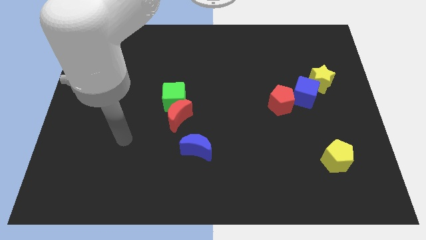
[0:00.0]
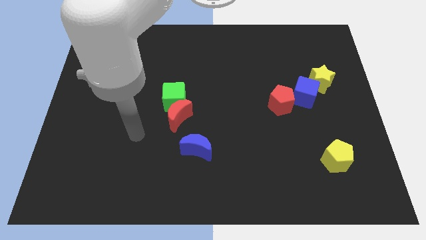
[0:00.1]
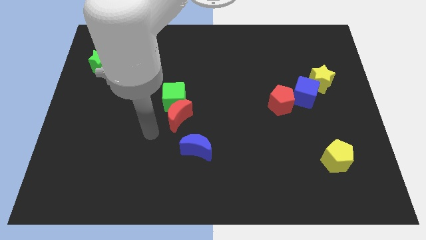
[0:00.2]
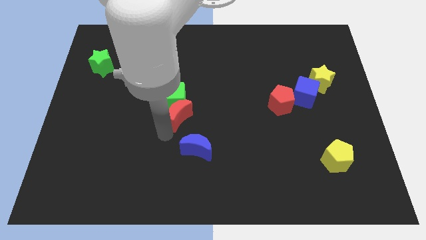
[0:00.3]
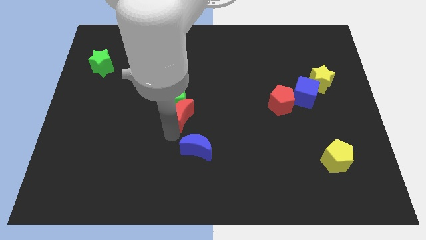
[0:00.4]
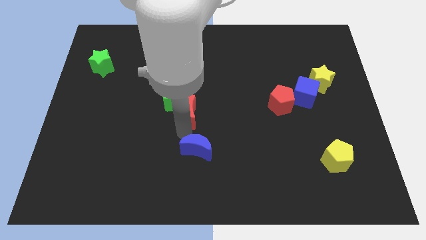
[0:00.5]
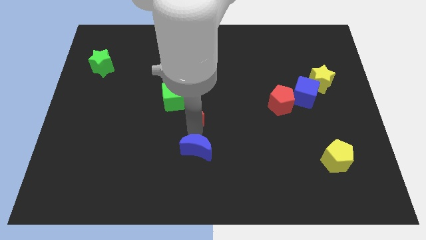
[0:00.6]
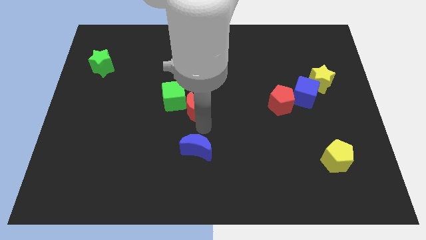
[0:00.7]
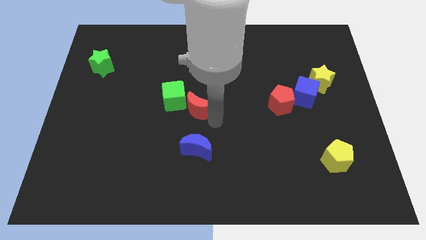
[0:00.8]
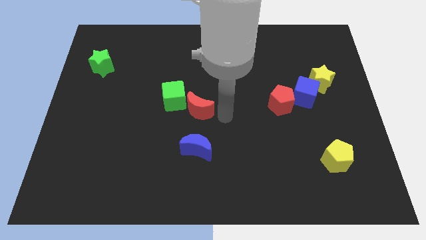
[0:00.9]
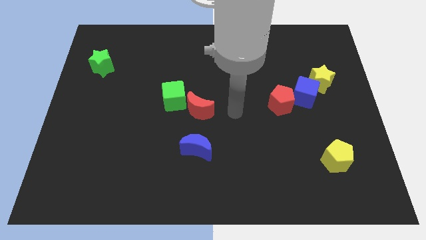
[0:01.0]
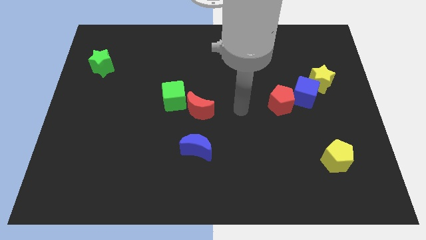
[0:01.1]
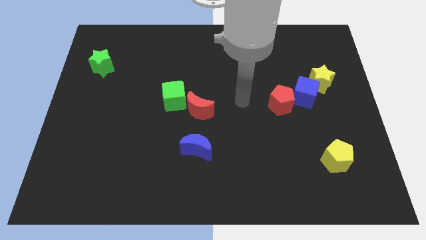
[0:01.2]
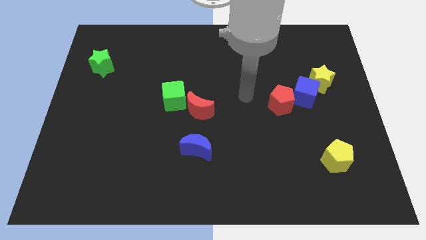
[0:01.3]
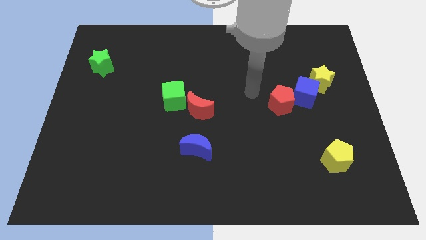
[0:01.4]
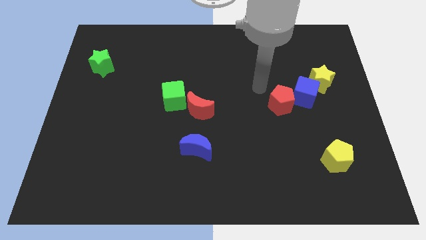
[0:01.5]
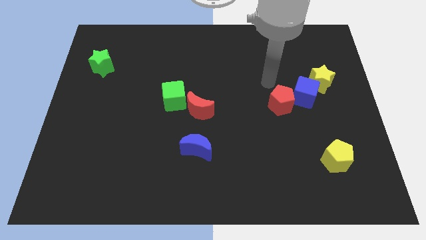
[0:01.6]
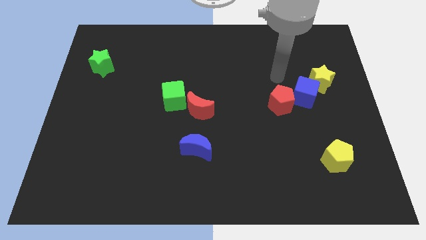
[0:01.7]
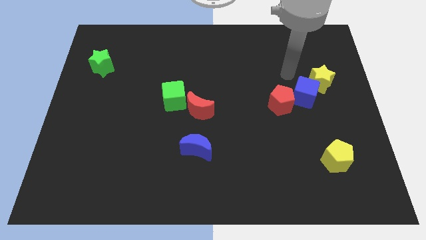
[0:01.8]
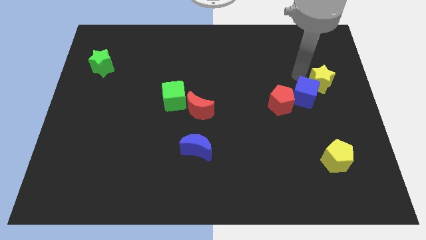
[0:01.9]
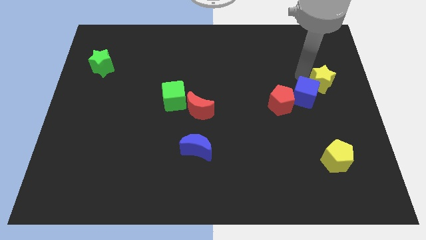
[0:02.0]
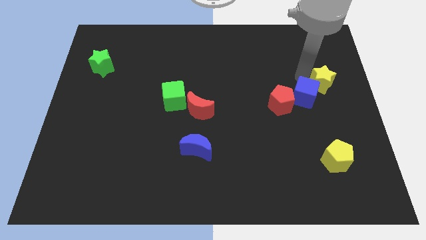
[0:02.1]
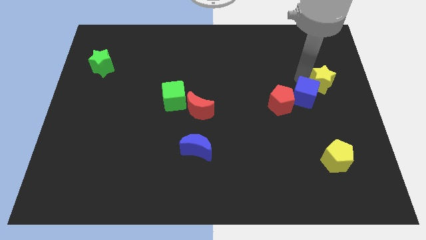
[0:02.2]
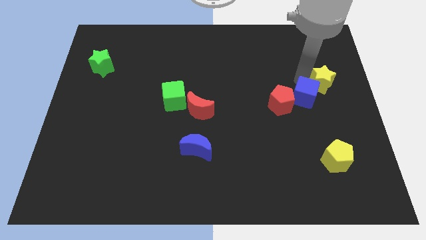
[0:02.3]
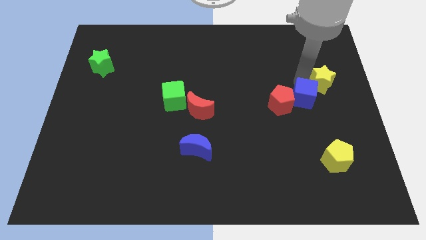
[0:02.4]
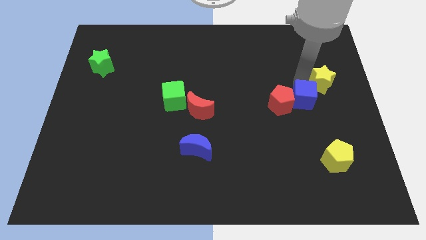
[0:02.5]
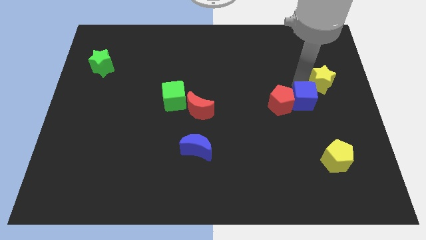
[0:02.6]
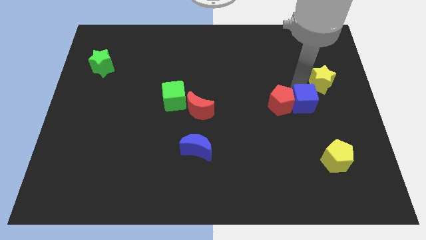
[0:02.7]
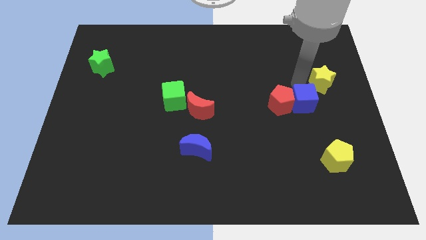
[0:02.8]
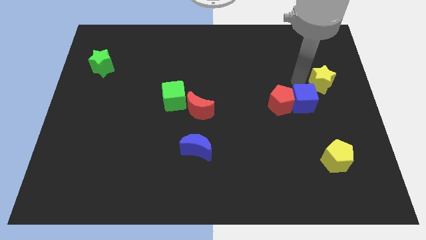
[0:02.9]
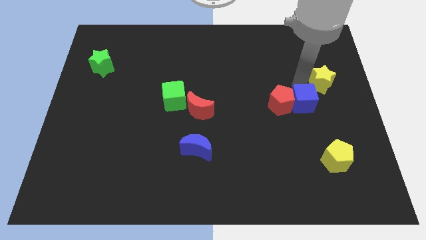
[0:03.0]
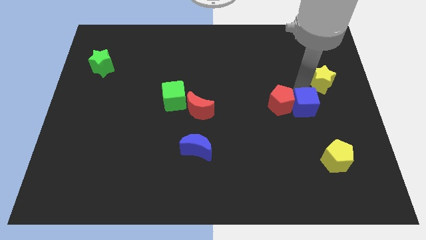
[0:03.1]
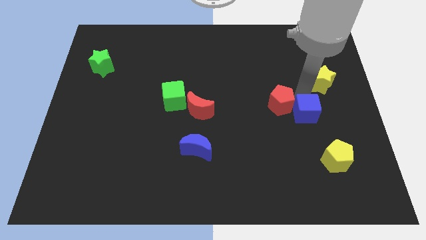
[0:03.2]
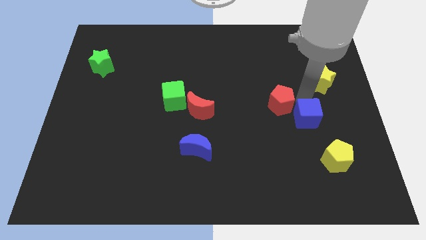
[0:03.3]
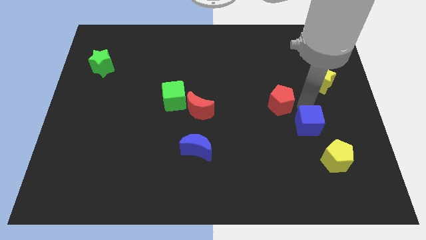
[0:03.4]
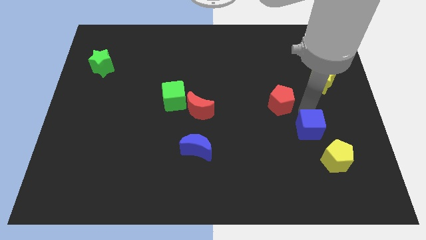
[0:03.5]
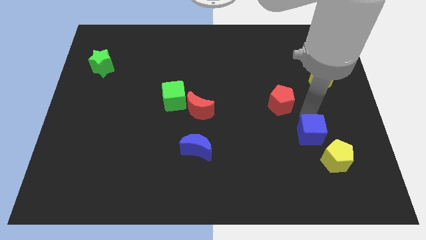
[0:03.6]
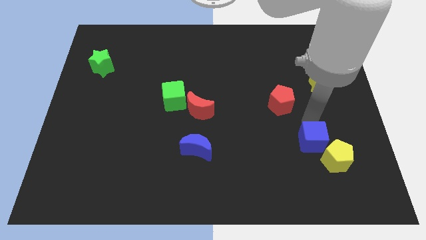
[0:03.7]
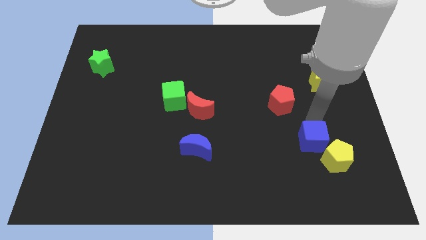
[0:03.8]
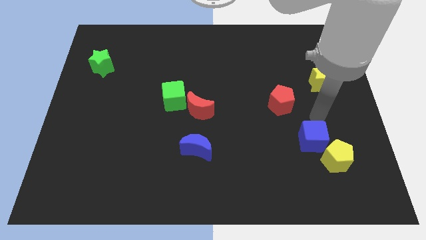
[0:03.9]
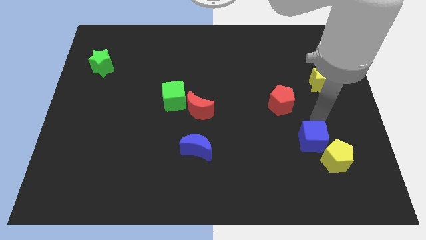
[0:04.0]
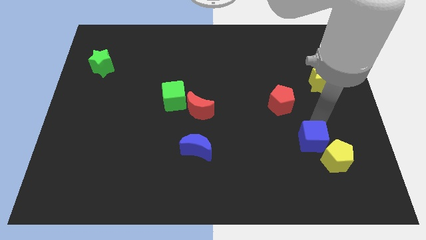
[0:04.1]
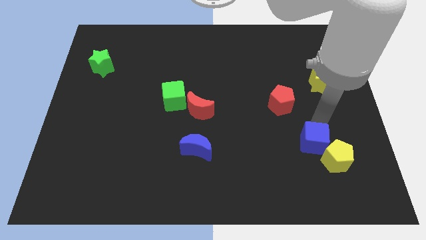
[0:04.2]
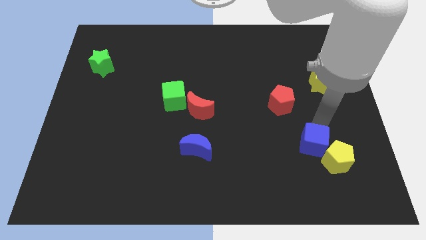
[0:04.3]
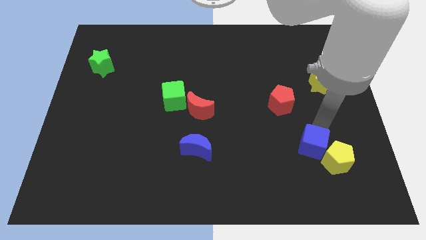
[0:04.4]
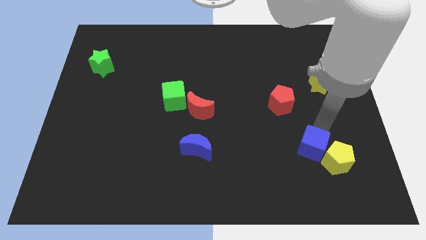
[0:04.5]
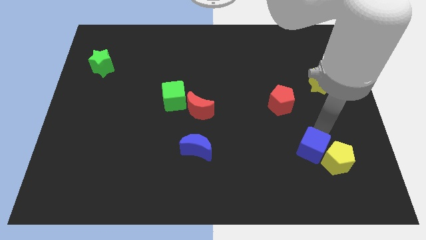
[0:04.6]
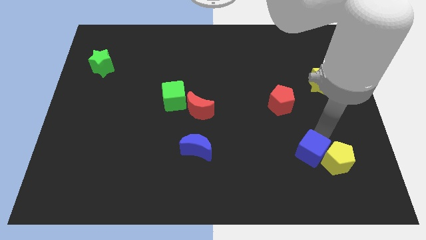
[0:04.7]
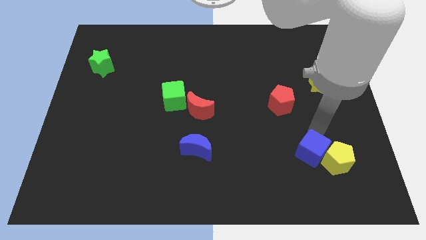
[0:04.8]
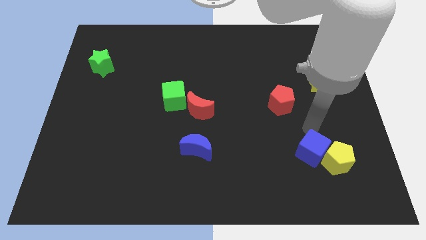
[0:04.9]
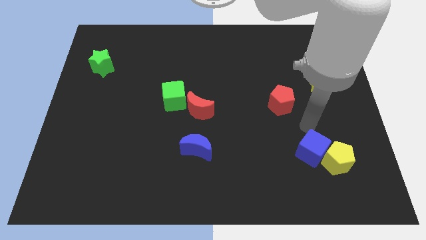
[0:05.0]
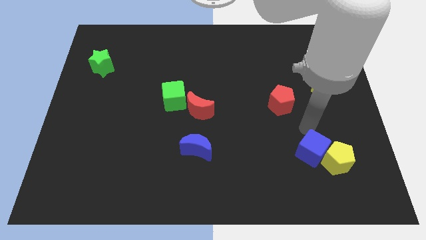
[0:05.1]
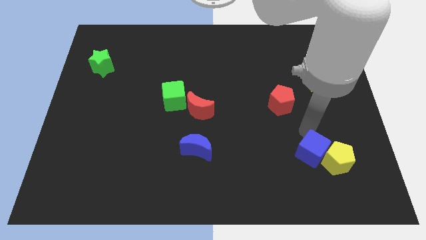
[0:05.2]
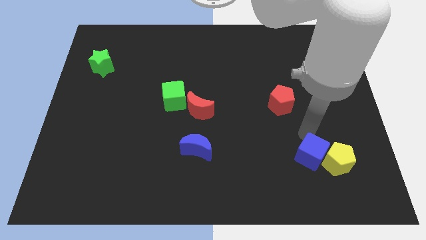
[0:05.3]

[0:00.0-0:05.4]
move the blue cube to the bottom left of the yellow pentagon

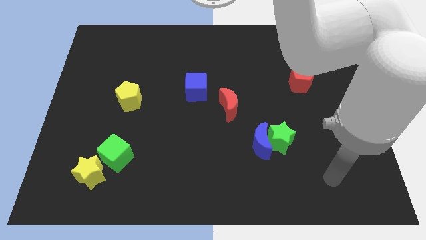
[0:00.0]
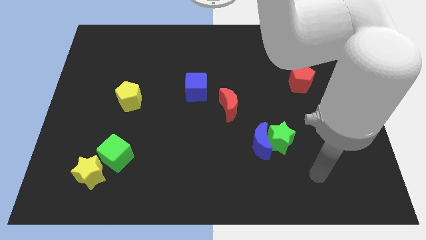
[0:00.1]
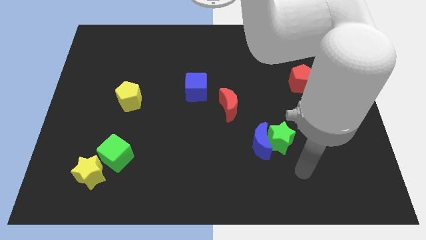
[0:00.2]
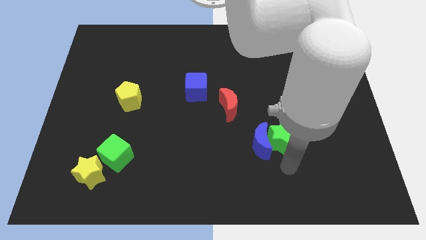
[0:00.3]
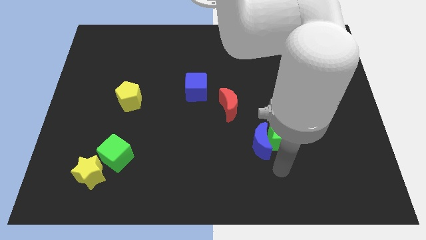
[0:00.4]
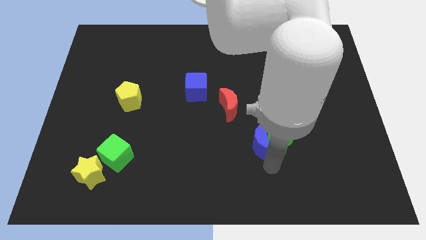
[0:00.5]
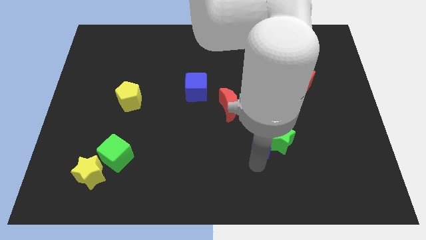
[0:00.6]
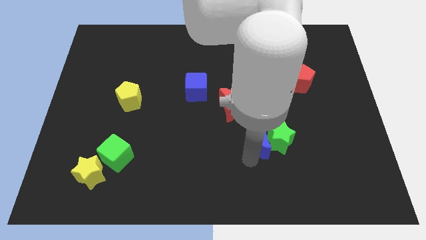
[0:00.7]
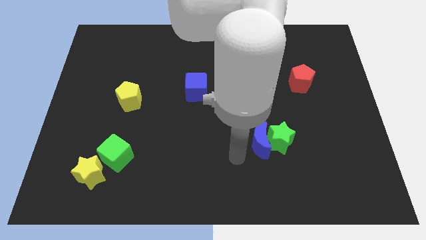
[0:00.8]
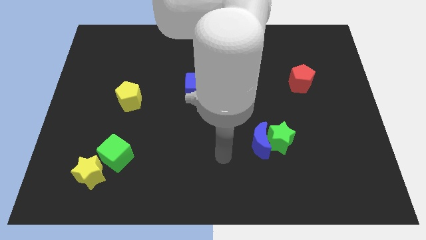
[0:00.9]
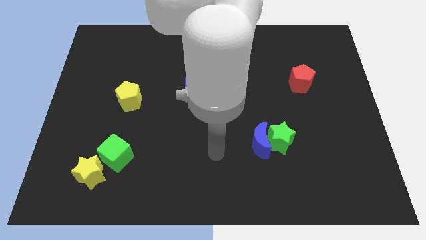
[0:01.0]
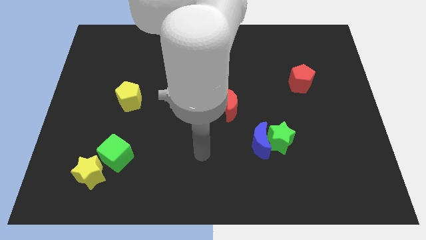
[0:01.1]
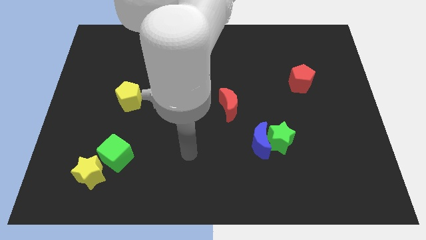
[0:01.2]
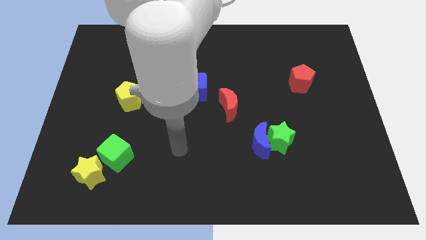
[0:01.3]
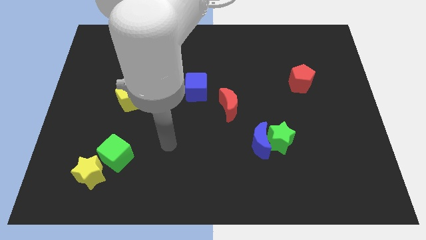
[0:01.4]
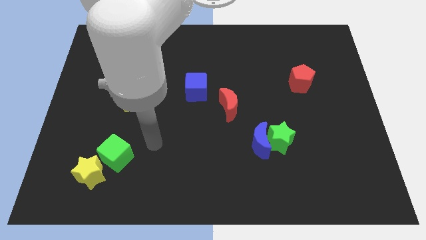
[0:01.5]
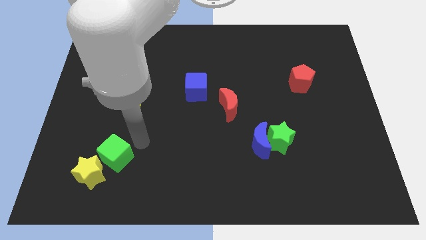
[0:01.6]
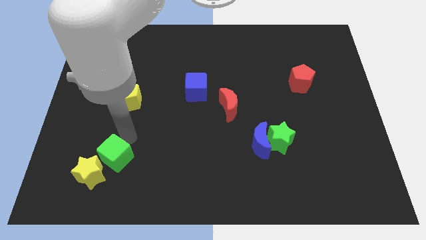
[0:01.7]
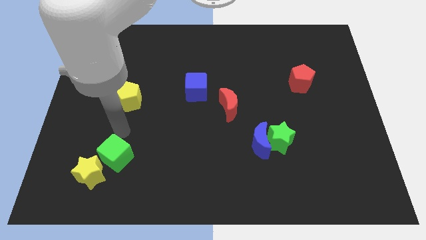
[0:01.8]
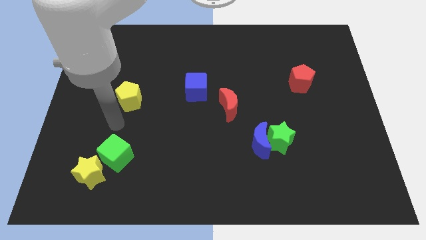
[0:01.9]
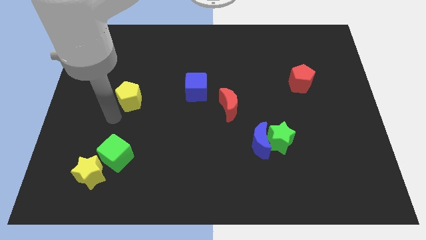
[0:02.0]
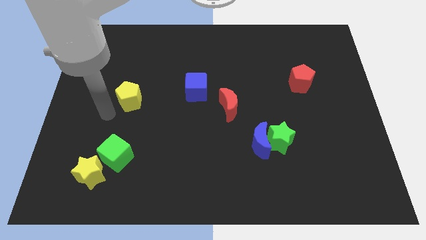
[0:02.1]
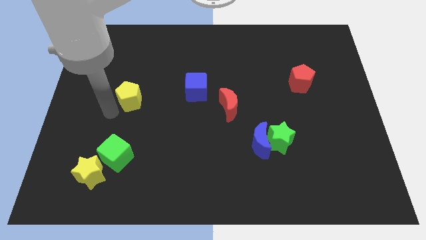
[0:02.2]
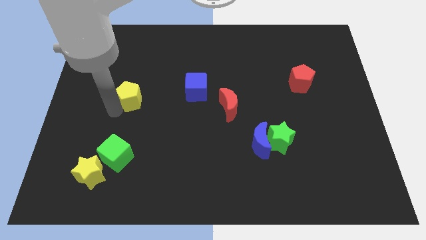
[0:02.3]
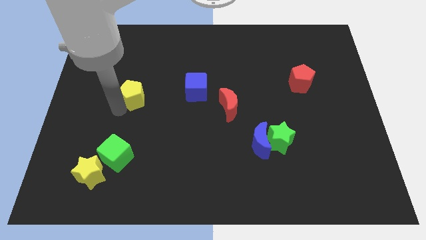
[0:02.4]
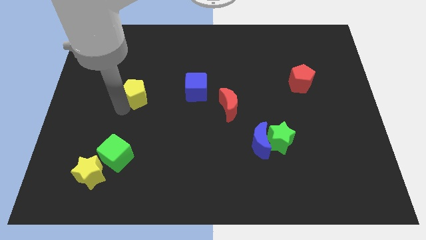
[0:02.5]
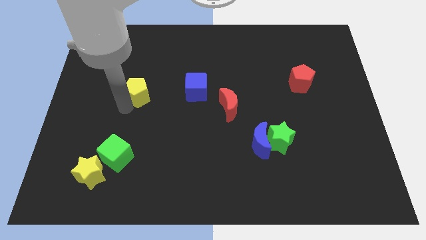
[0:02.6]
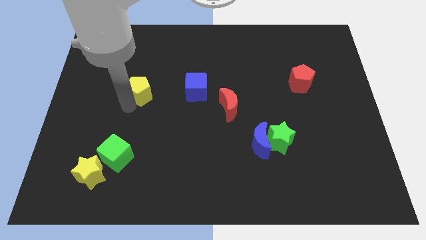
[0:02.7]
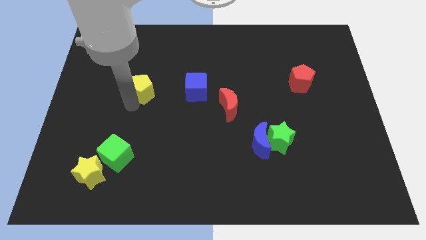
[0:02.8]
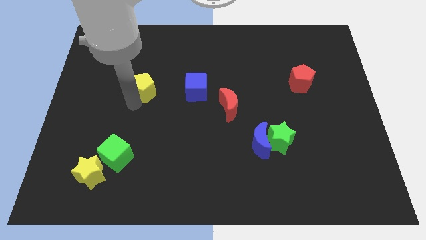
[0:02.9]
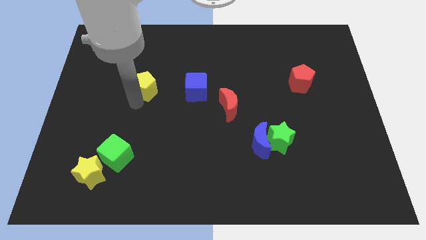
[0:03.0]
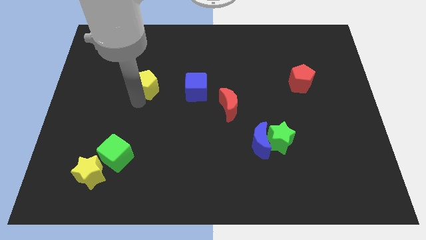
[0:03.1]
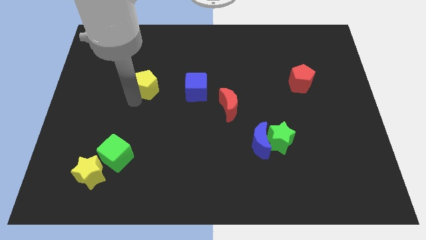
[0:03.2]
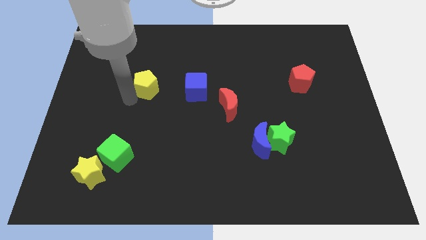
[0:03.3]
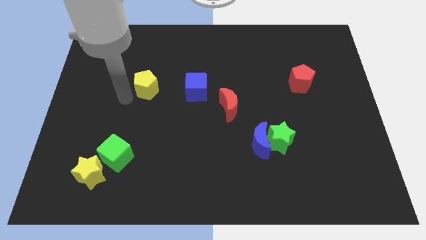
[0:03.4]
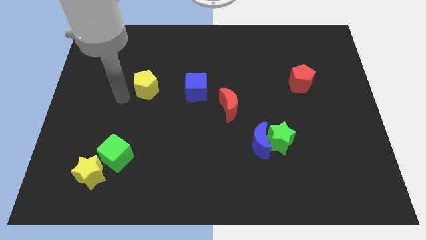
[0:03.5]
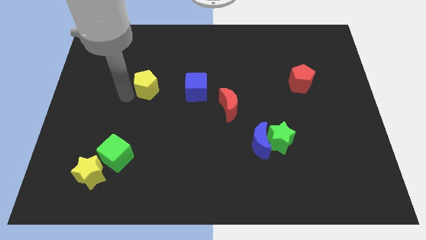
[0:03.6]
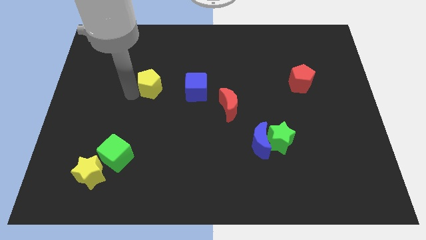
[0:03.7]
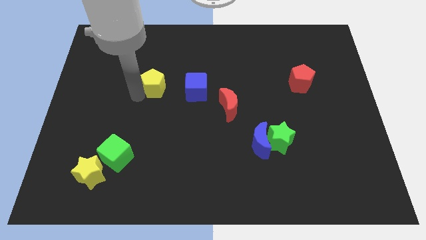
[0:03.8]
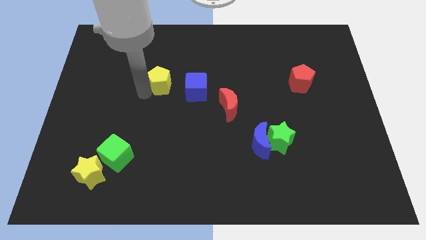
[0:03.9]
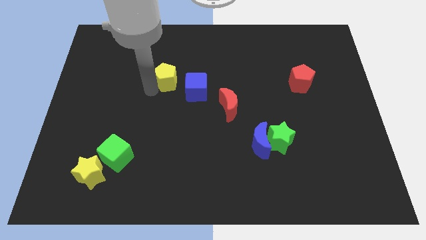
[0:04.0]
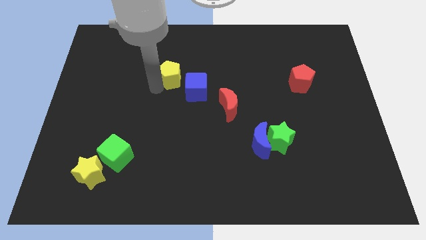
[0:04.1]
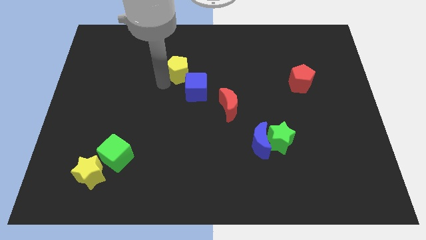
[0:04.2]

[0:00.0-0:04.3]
put the yellow pentagon to the top side of the blue cube
